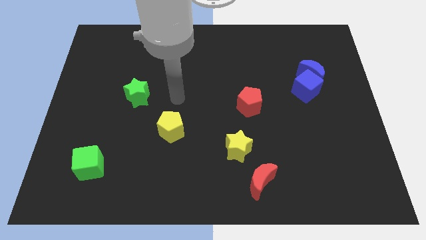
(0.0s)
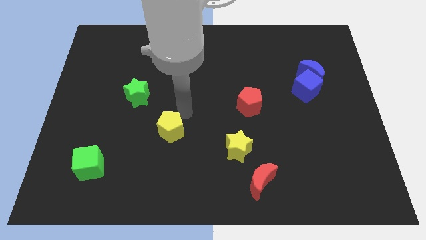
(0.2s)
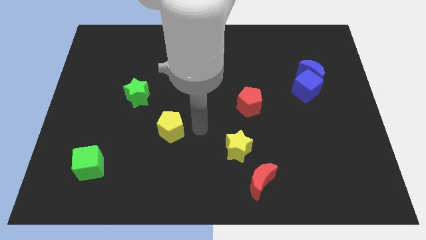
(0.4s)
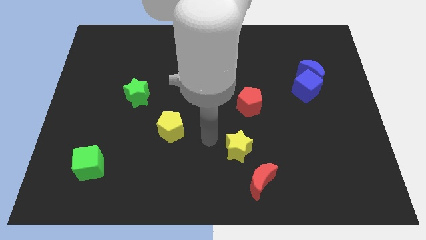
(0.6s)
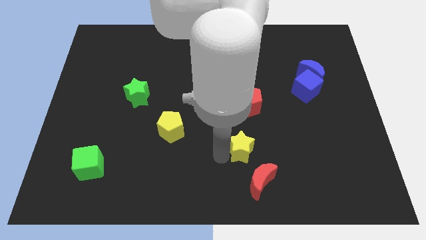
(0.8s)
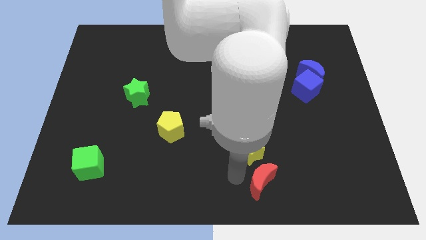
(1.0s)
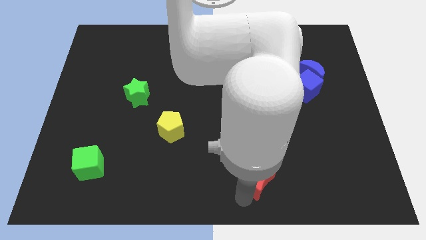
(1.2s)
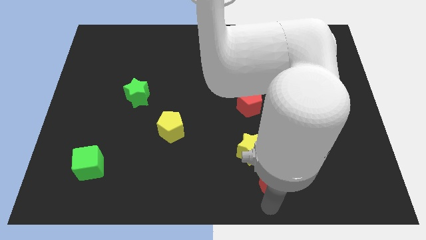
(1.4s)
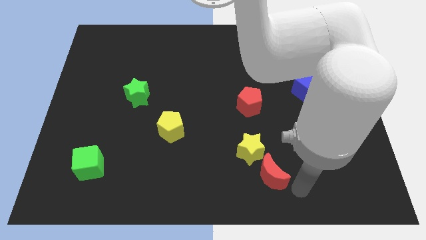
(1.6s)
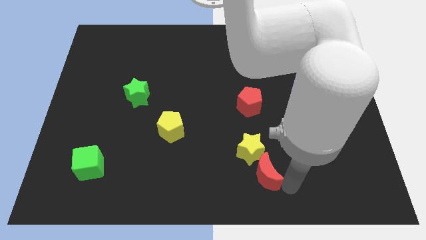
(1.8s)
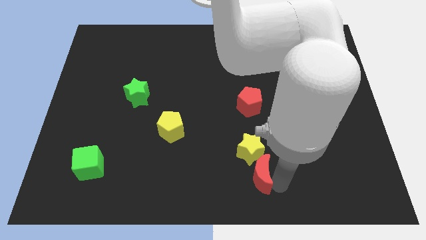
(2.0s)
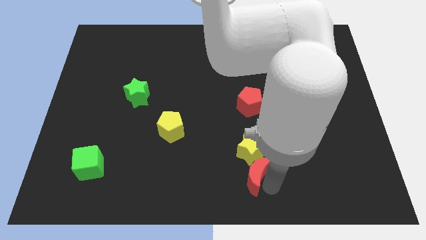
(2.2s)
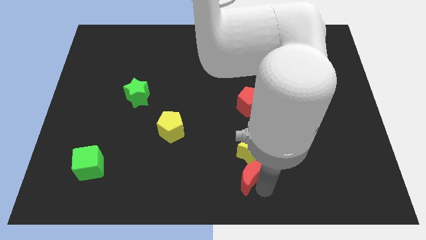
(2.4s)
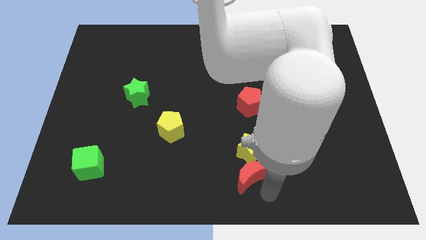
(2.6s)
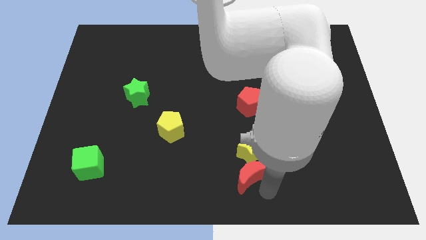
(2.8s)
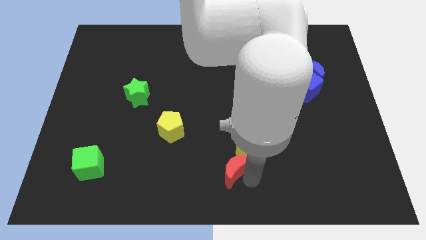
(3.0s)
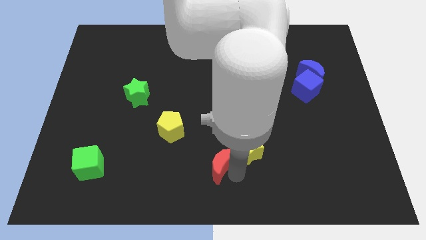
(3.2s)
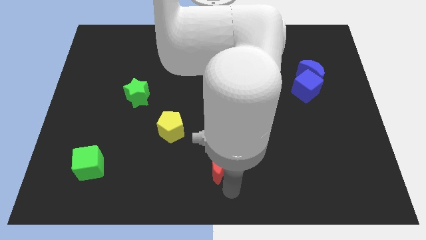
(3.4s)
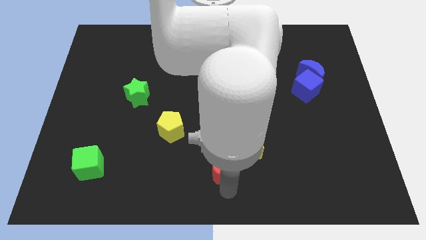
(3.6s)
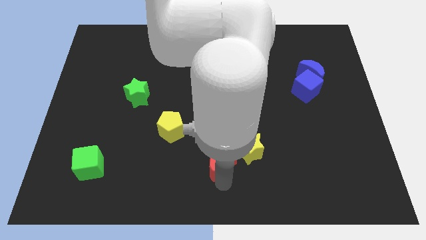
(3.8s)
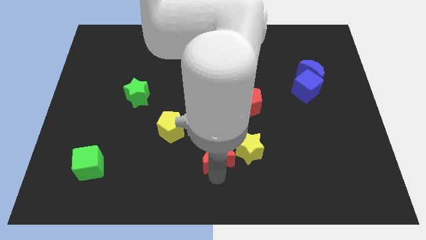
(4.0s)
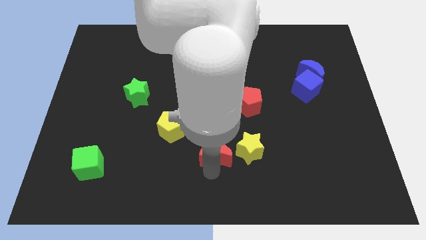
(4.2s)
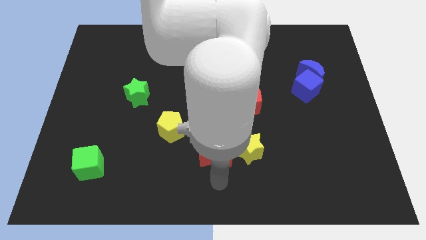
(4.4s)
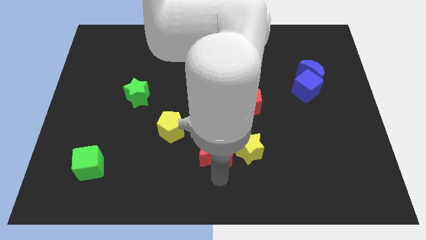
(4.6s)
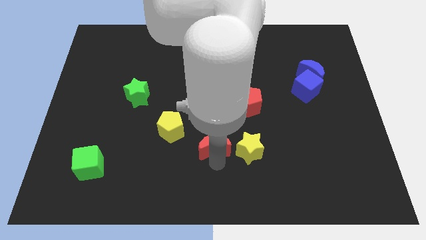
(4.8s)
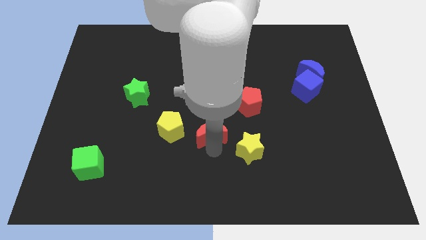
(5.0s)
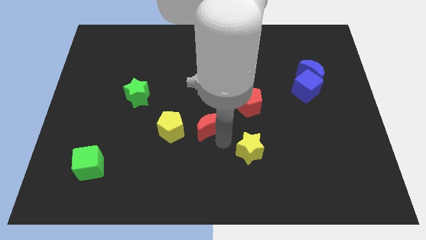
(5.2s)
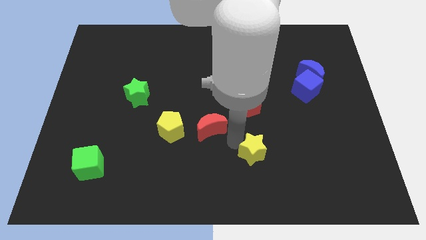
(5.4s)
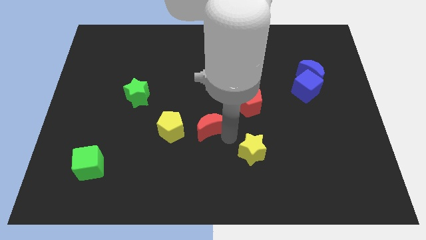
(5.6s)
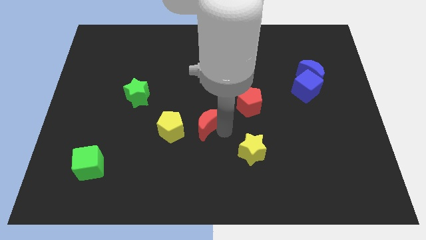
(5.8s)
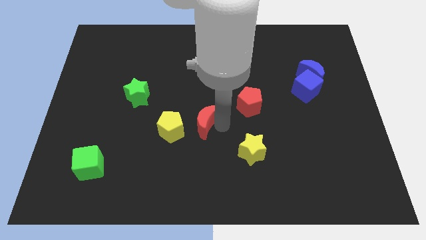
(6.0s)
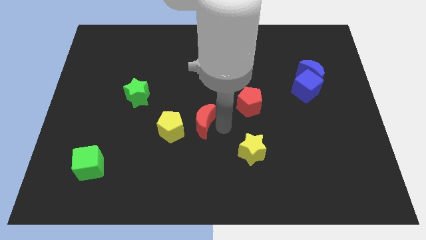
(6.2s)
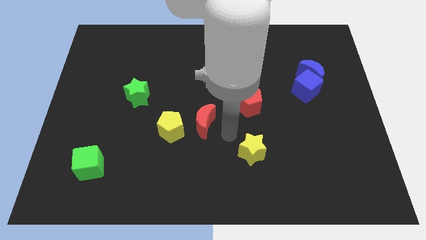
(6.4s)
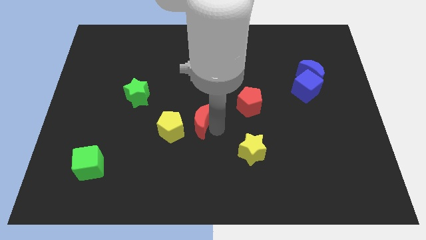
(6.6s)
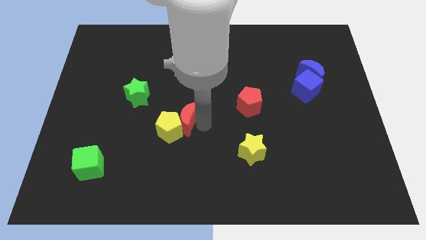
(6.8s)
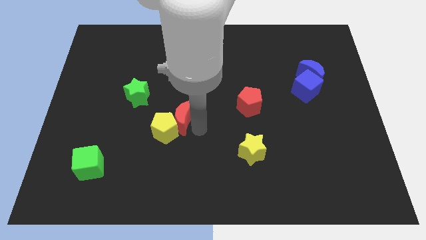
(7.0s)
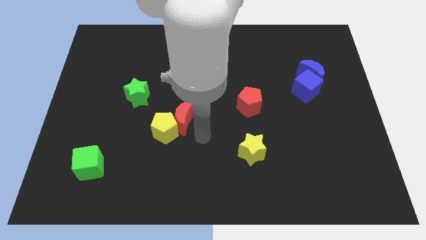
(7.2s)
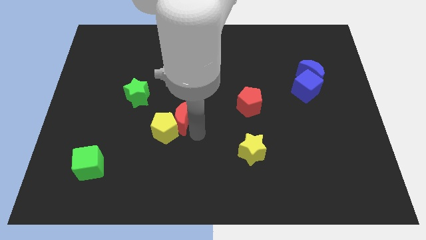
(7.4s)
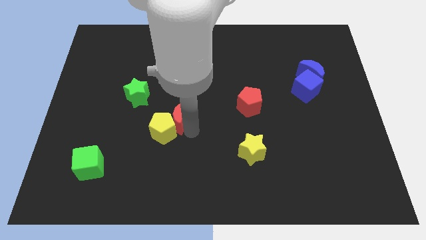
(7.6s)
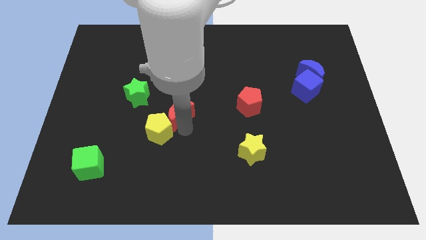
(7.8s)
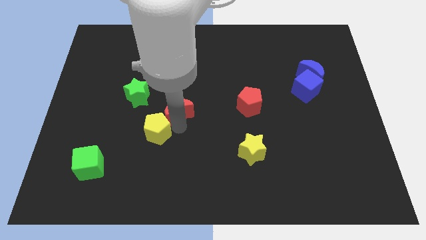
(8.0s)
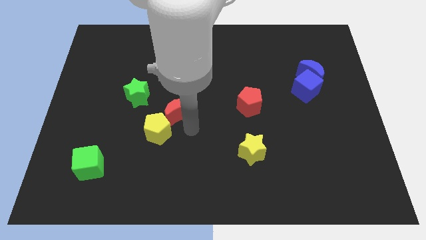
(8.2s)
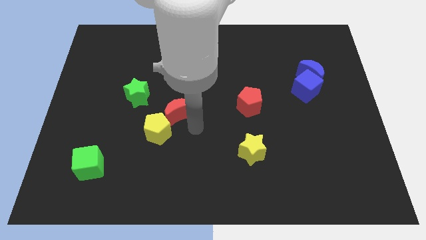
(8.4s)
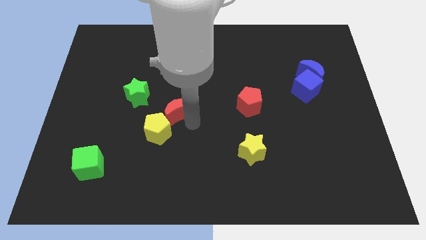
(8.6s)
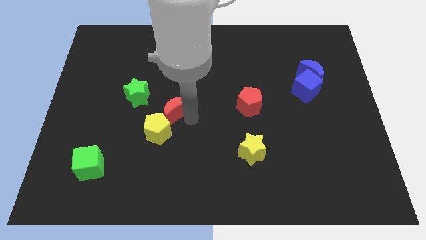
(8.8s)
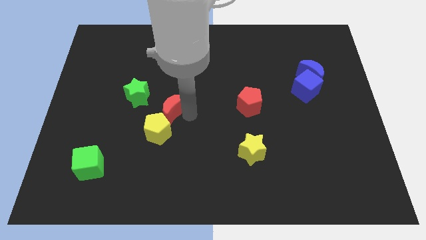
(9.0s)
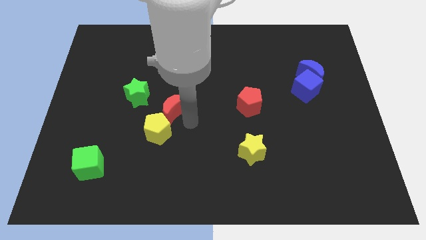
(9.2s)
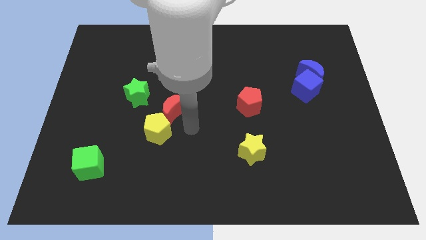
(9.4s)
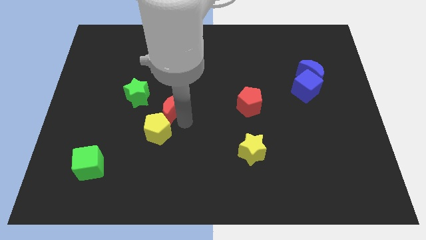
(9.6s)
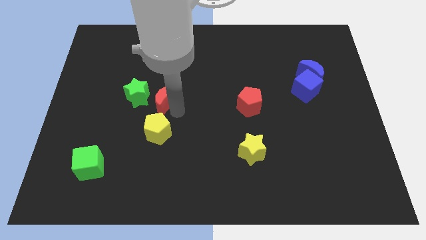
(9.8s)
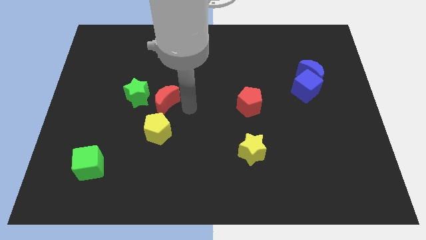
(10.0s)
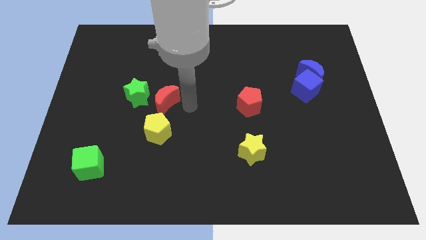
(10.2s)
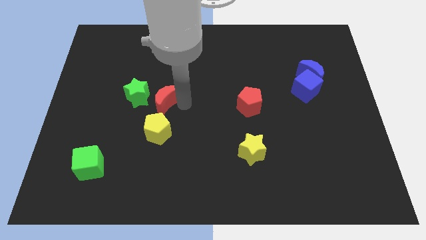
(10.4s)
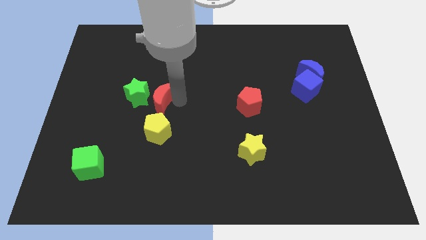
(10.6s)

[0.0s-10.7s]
put the red moon close to the green star

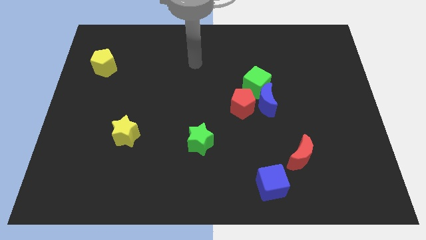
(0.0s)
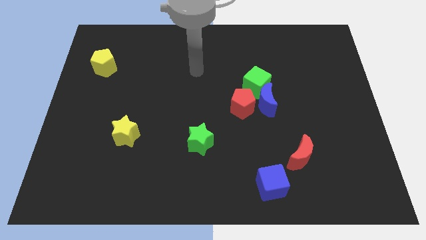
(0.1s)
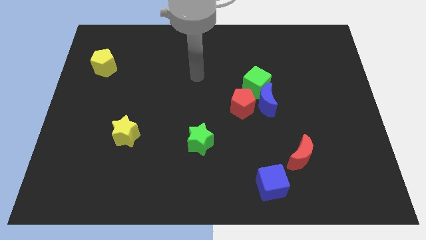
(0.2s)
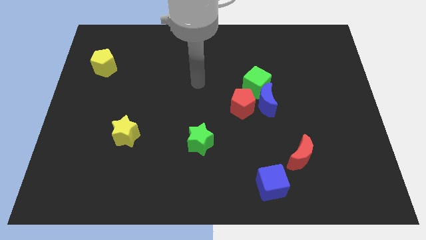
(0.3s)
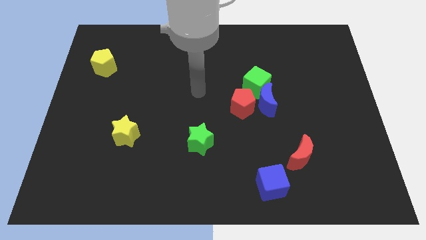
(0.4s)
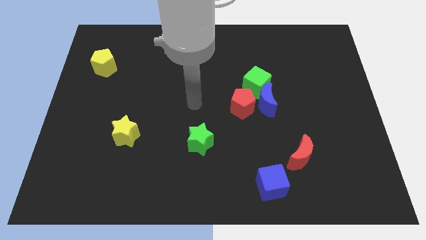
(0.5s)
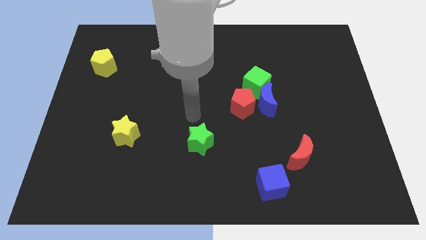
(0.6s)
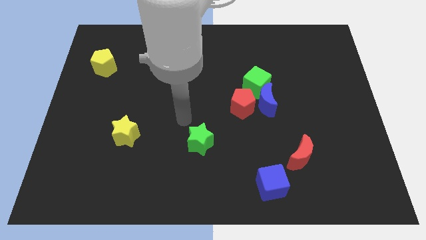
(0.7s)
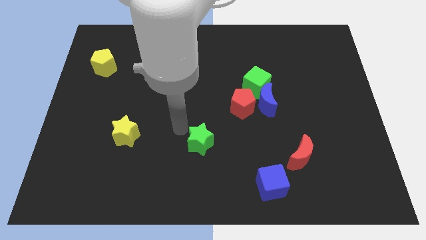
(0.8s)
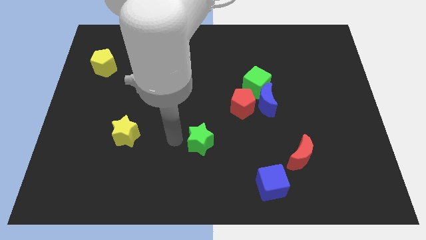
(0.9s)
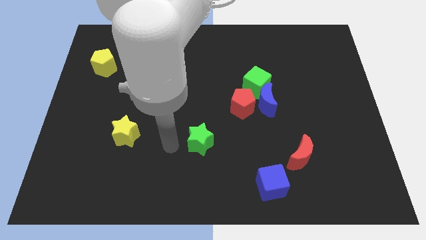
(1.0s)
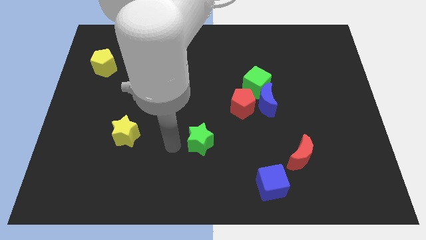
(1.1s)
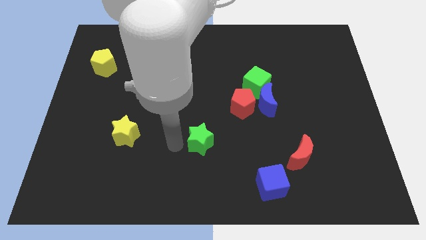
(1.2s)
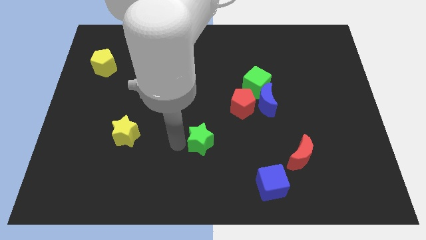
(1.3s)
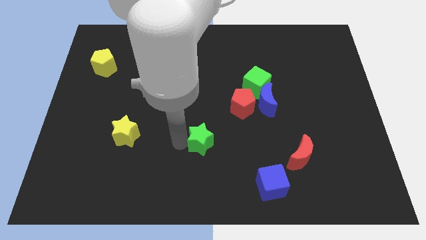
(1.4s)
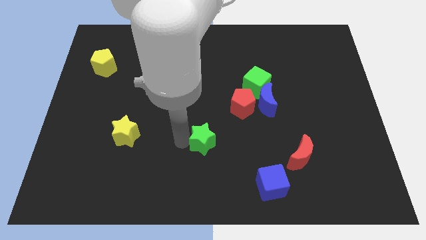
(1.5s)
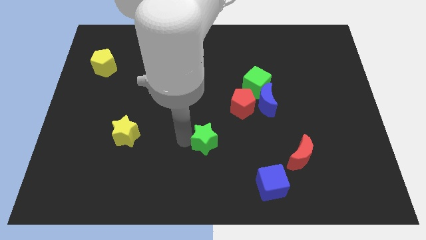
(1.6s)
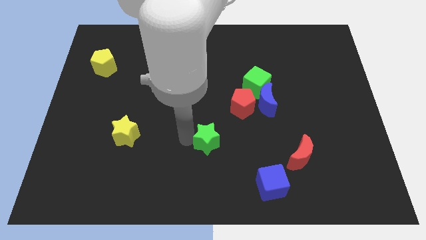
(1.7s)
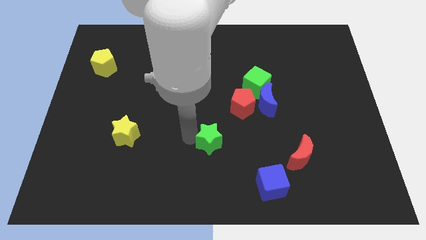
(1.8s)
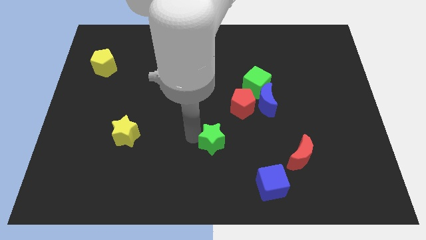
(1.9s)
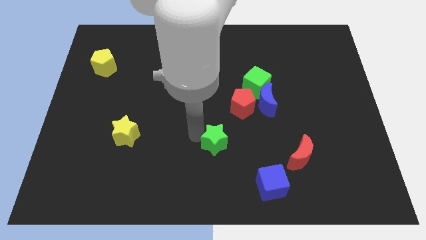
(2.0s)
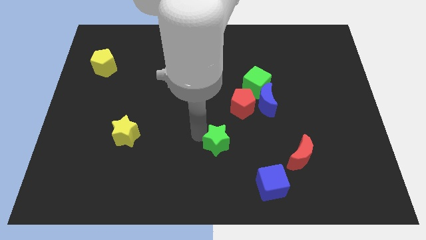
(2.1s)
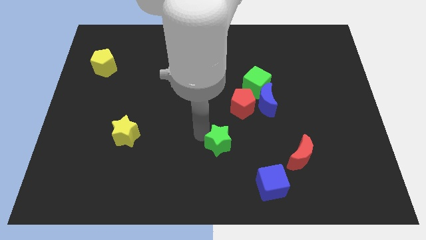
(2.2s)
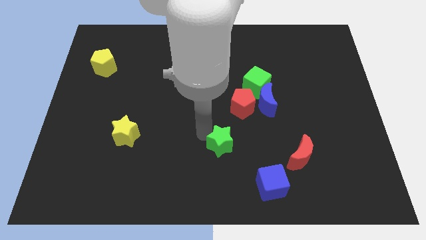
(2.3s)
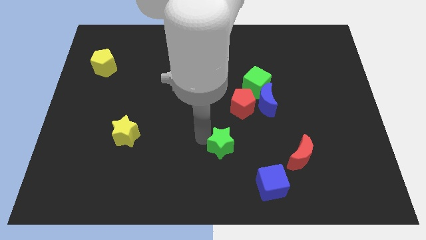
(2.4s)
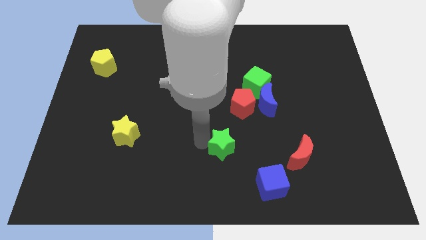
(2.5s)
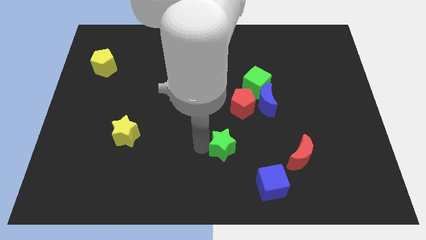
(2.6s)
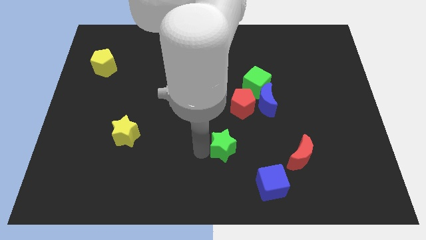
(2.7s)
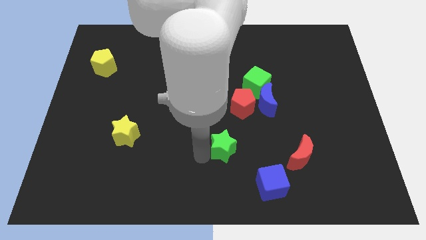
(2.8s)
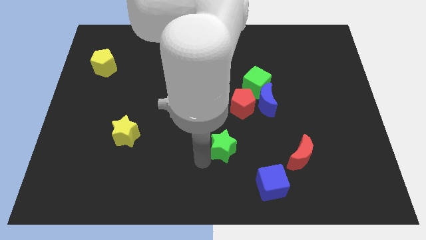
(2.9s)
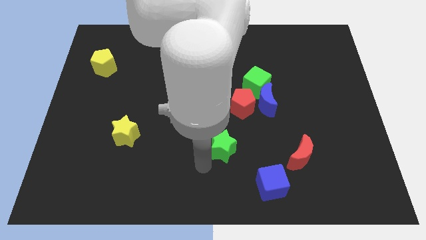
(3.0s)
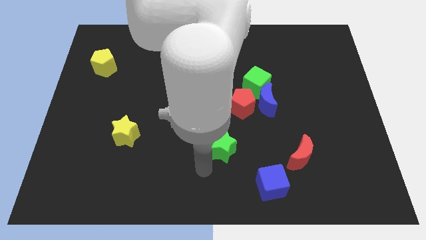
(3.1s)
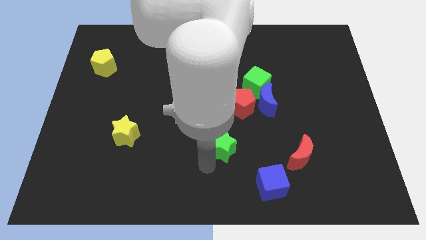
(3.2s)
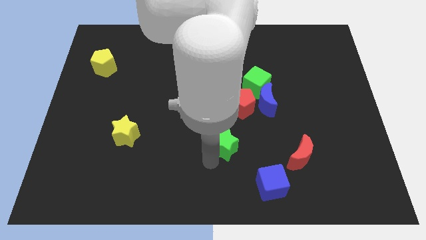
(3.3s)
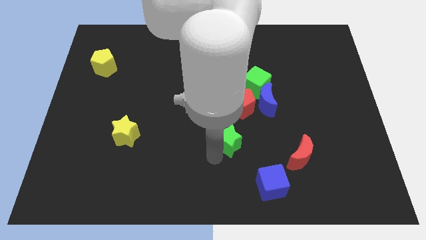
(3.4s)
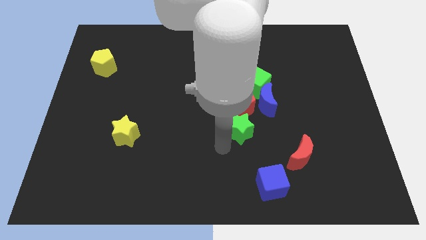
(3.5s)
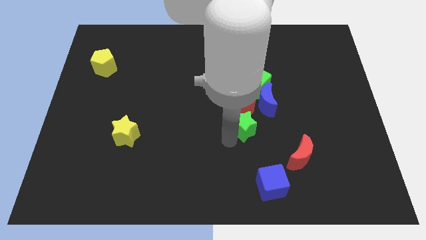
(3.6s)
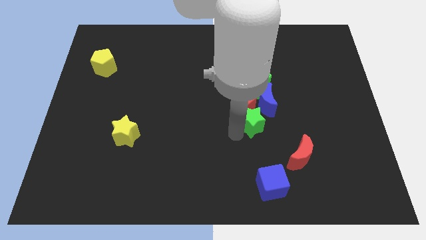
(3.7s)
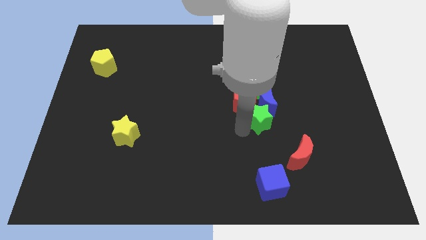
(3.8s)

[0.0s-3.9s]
move the green star next to the blue moon
